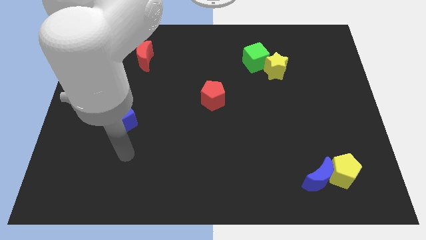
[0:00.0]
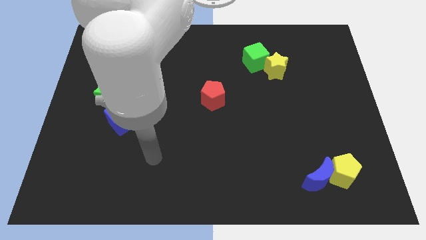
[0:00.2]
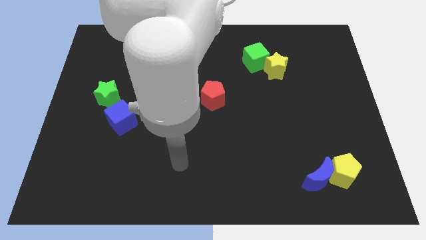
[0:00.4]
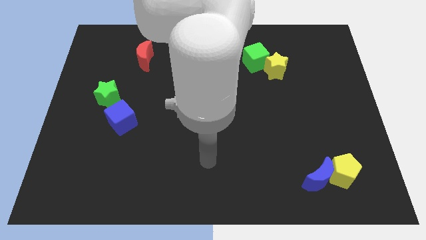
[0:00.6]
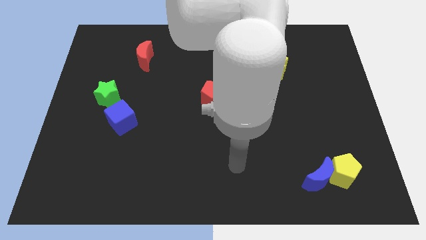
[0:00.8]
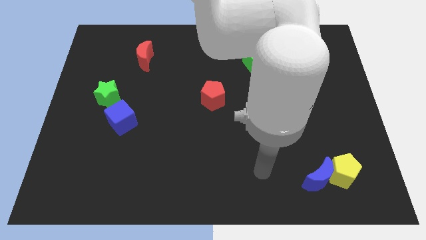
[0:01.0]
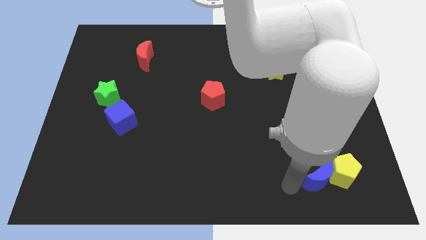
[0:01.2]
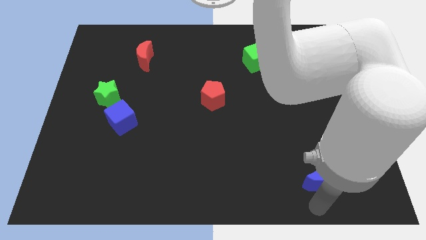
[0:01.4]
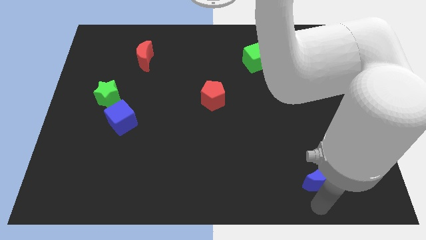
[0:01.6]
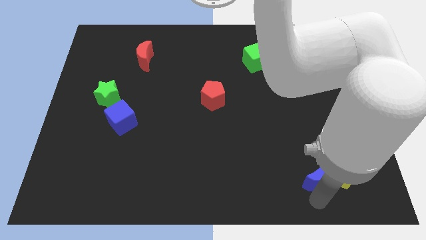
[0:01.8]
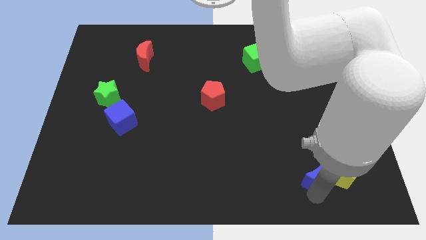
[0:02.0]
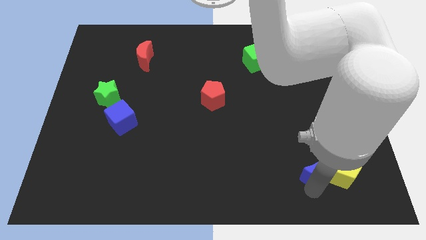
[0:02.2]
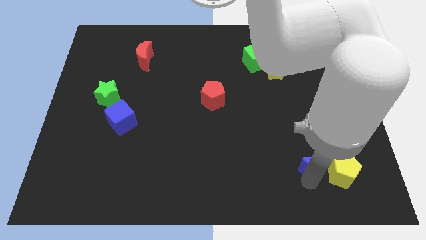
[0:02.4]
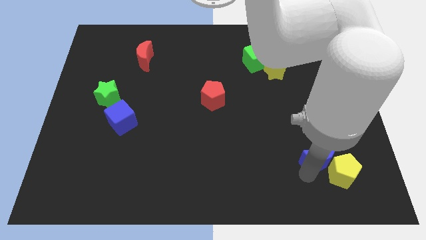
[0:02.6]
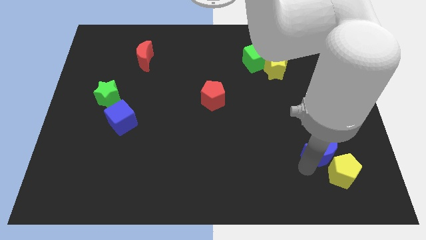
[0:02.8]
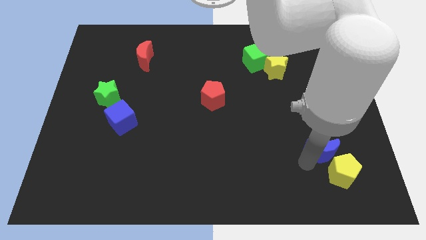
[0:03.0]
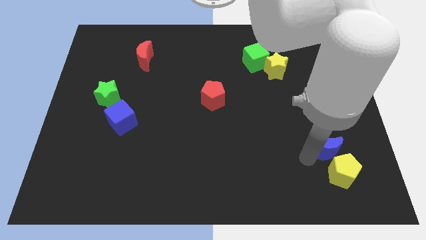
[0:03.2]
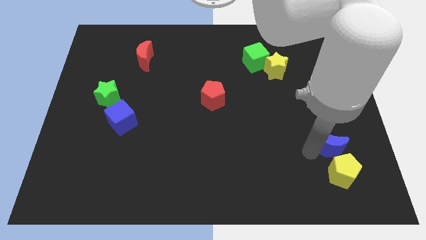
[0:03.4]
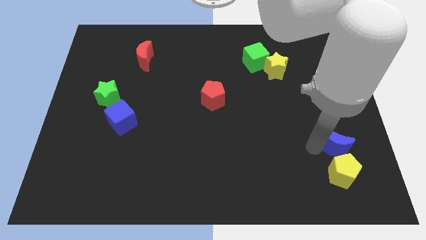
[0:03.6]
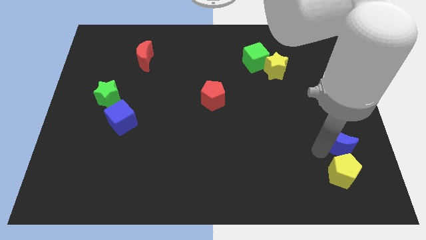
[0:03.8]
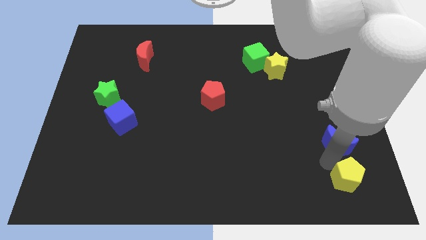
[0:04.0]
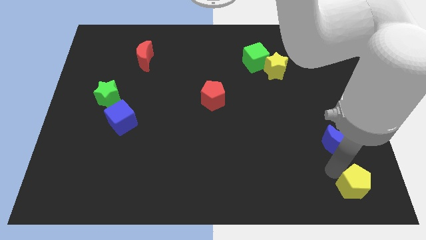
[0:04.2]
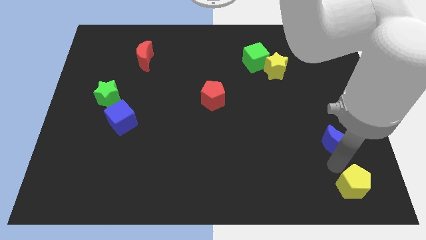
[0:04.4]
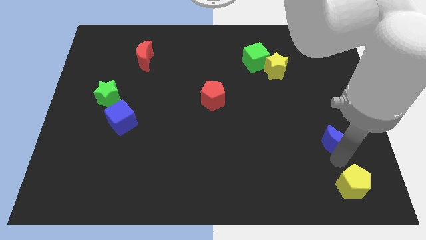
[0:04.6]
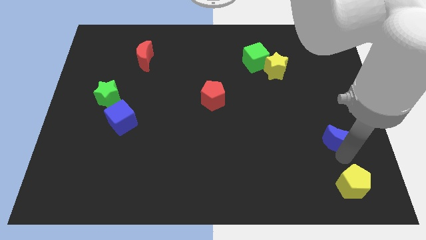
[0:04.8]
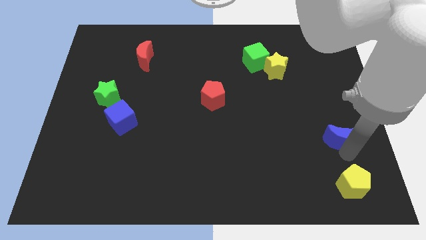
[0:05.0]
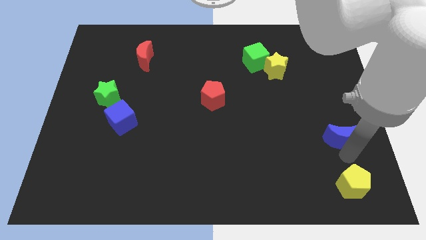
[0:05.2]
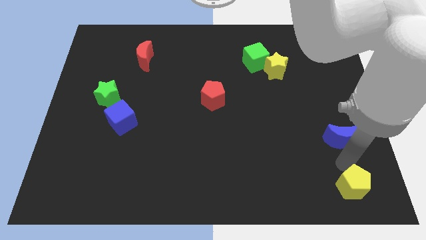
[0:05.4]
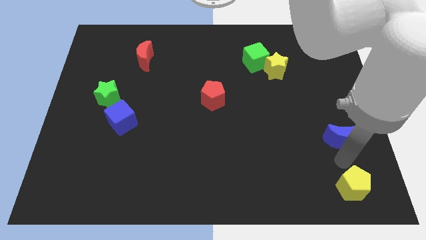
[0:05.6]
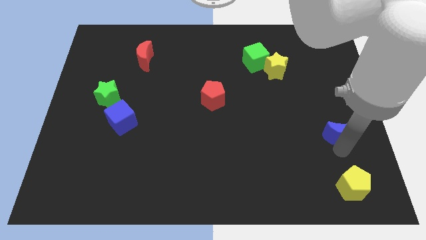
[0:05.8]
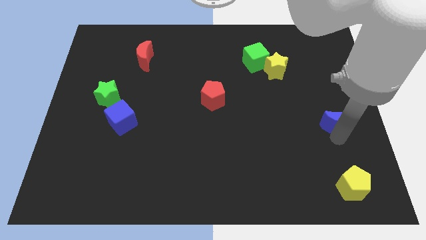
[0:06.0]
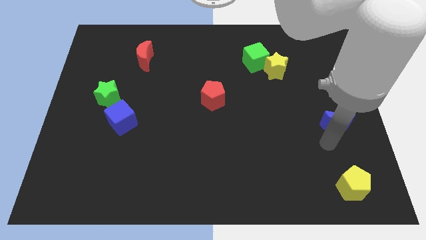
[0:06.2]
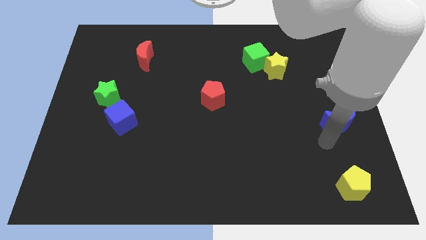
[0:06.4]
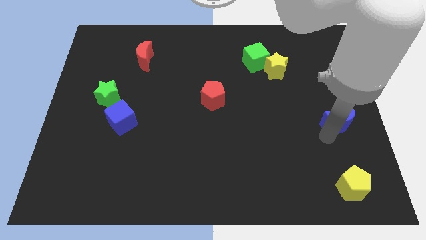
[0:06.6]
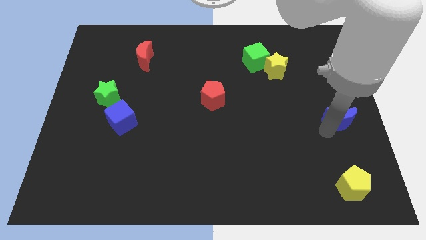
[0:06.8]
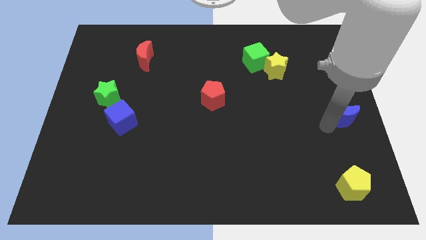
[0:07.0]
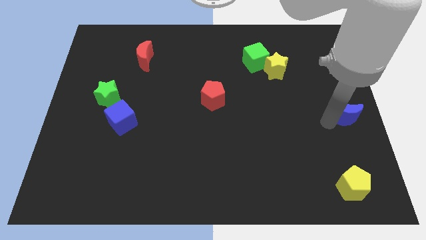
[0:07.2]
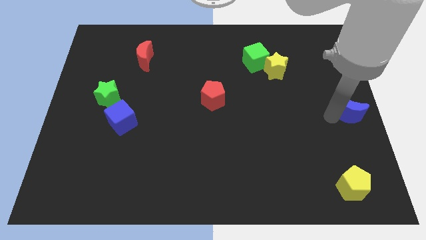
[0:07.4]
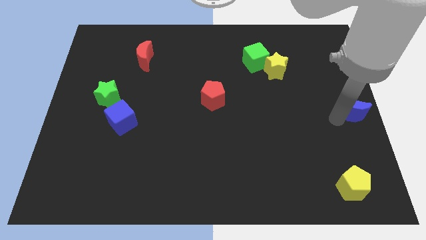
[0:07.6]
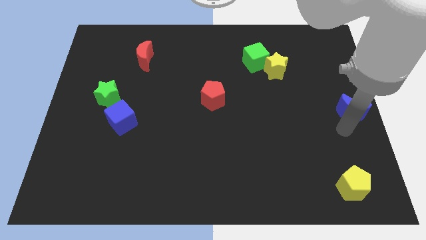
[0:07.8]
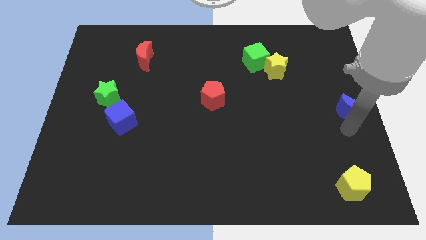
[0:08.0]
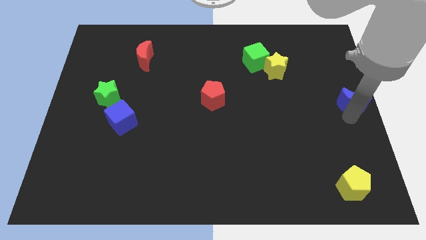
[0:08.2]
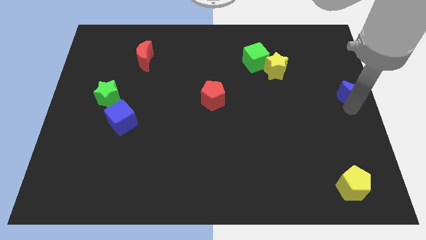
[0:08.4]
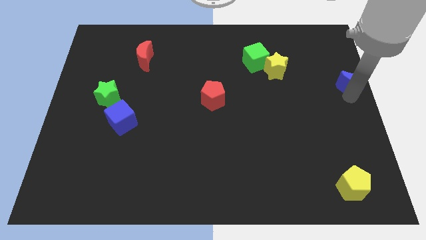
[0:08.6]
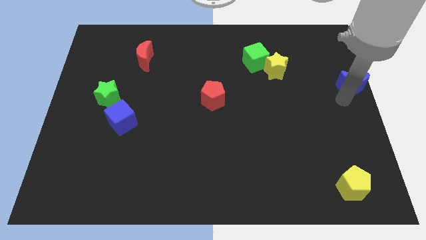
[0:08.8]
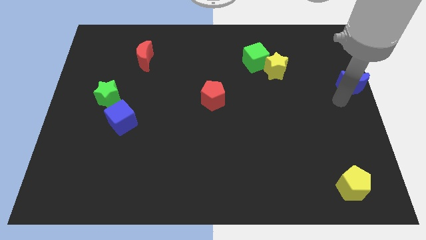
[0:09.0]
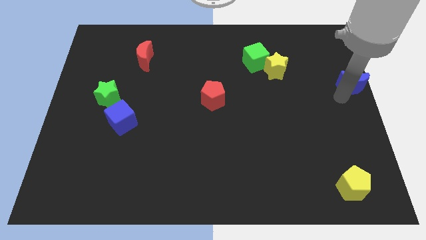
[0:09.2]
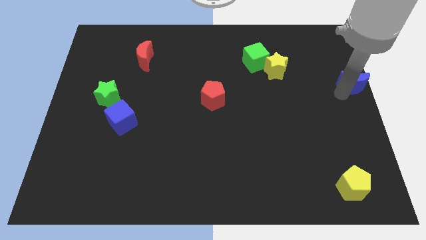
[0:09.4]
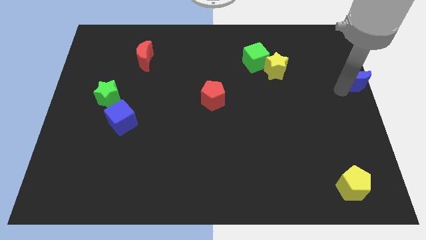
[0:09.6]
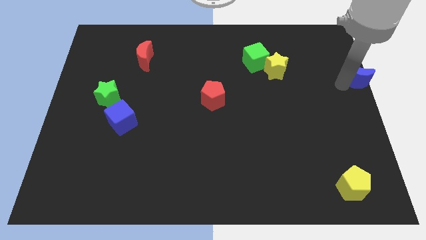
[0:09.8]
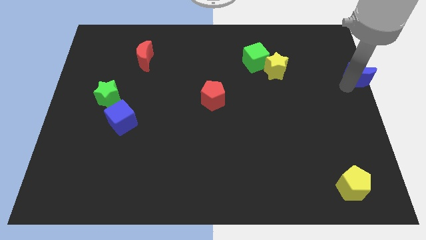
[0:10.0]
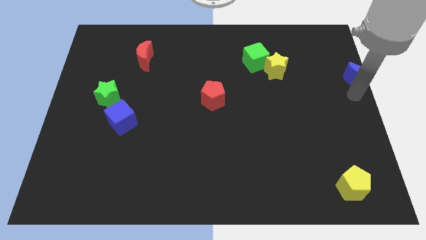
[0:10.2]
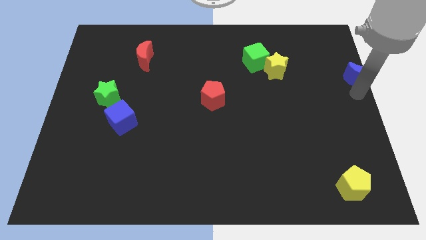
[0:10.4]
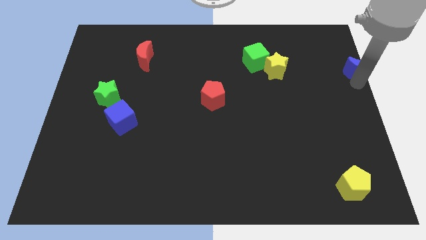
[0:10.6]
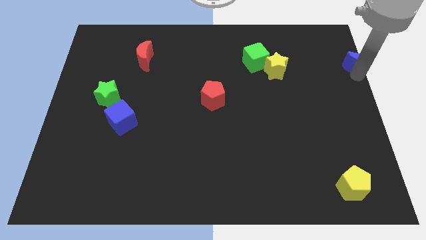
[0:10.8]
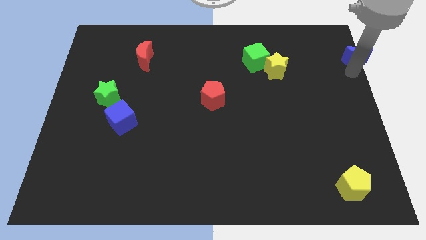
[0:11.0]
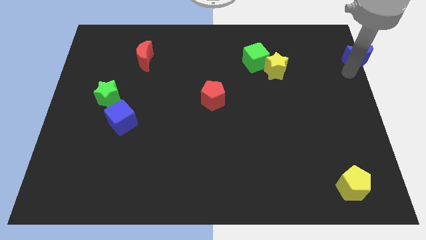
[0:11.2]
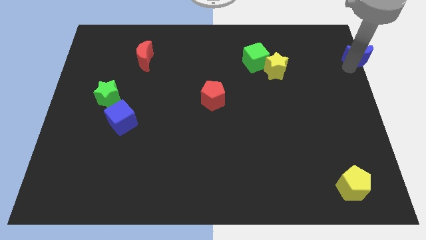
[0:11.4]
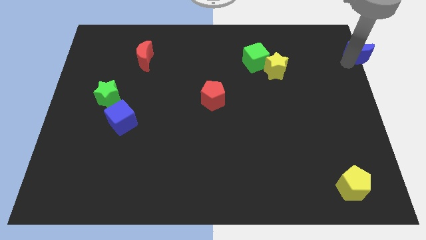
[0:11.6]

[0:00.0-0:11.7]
slide the blue moon to the top right corner

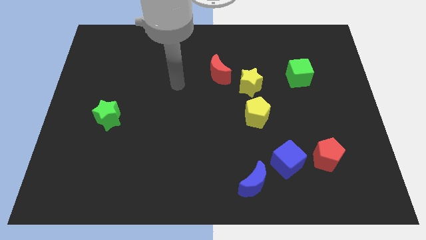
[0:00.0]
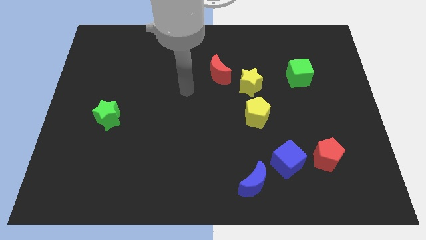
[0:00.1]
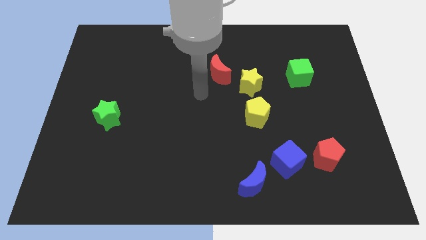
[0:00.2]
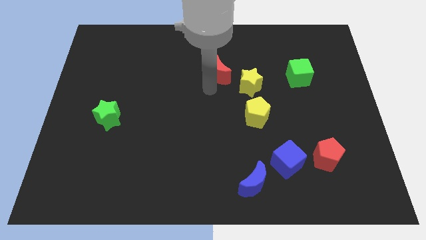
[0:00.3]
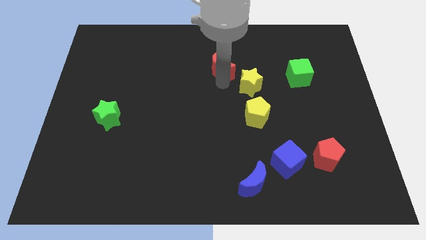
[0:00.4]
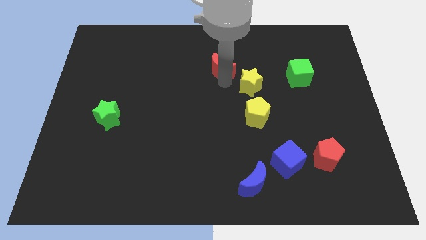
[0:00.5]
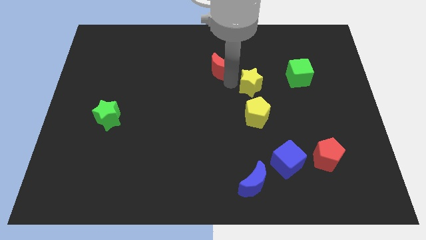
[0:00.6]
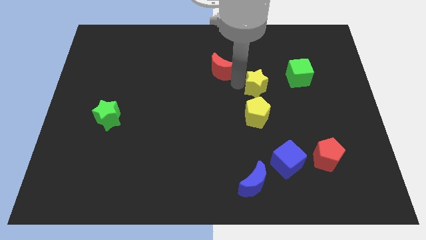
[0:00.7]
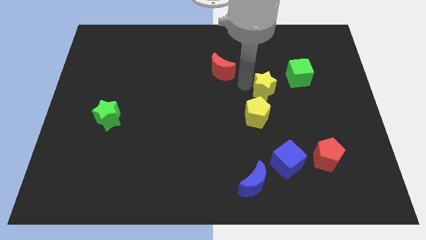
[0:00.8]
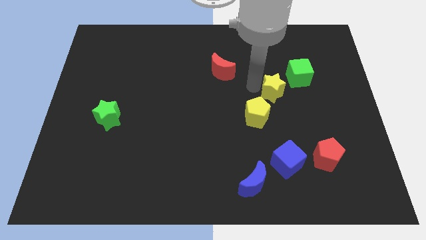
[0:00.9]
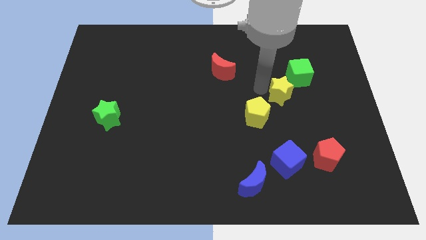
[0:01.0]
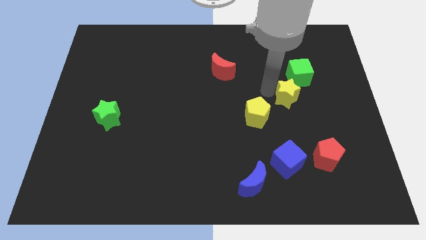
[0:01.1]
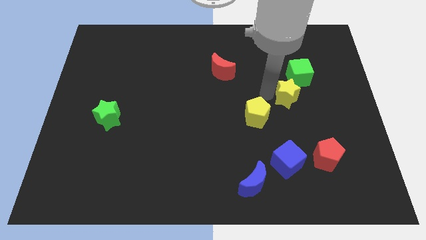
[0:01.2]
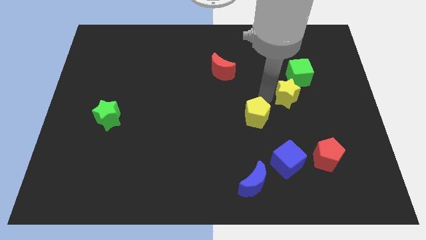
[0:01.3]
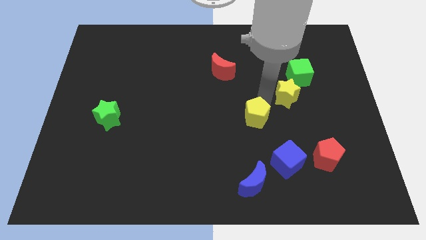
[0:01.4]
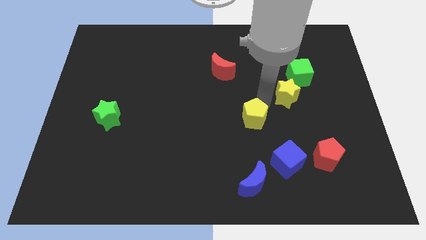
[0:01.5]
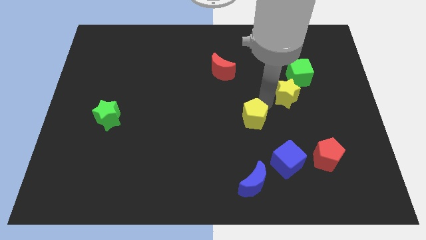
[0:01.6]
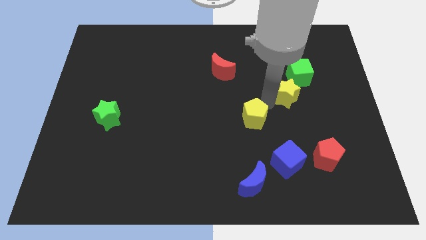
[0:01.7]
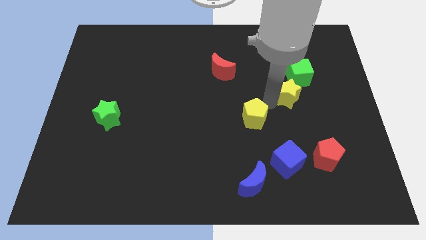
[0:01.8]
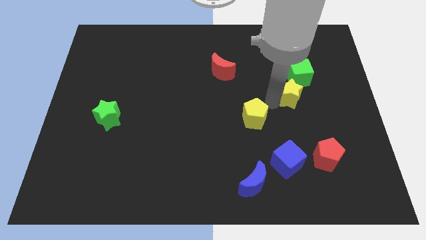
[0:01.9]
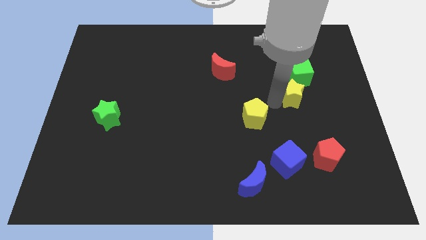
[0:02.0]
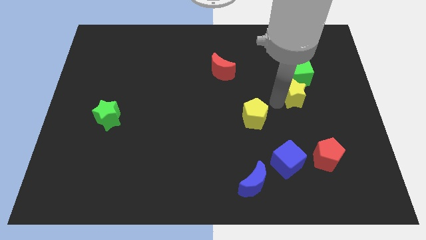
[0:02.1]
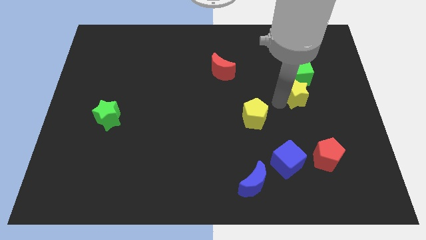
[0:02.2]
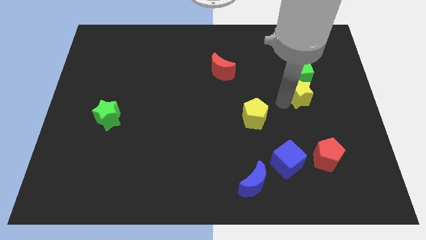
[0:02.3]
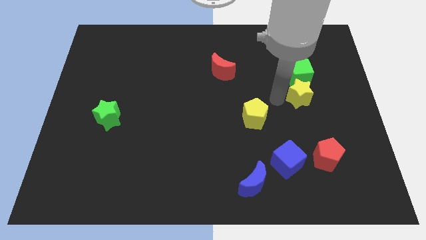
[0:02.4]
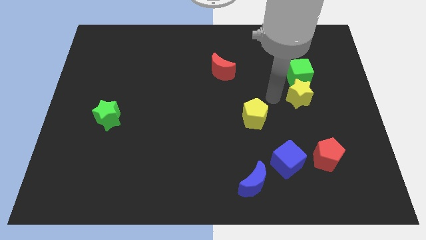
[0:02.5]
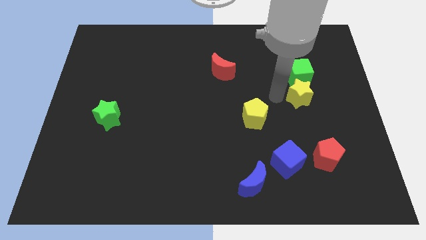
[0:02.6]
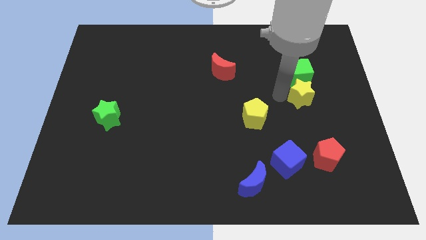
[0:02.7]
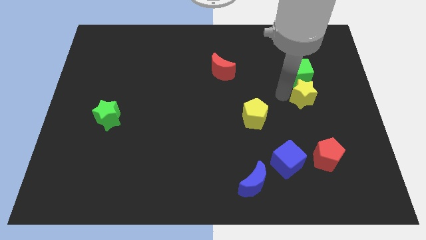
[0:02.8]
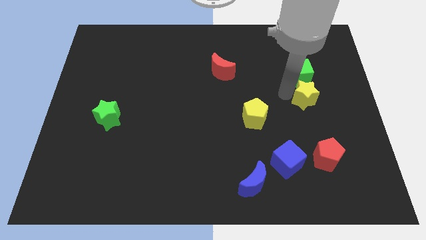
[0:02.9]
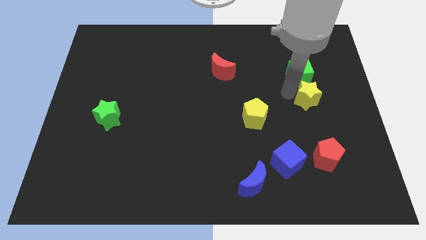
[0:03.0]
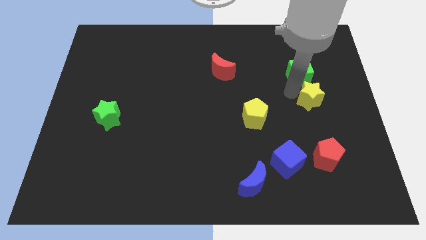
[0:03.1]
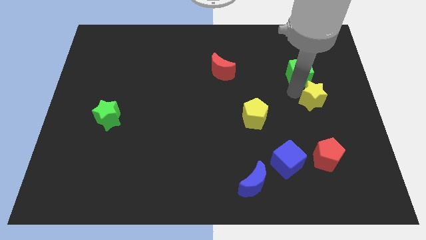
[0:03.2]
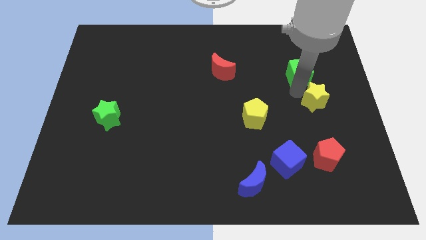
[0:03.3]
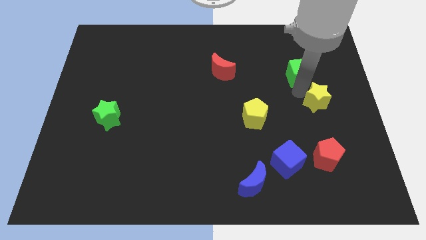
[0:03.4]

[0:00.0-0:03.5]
move the yellow star to the right side
